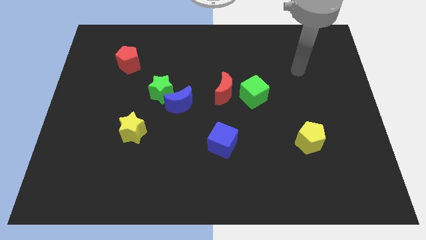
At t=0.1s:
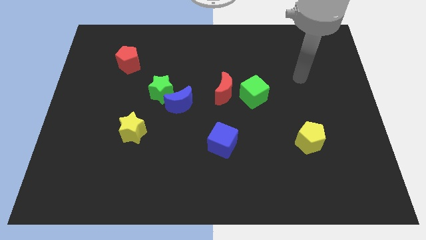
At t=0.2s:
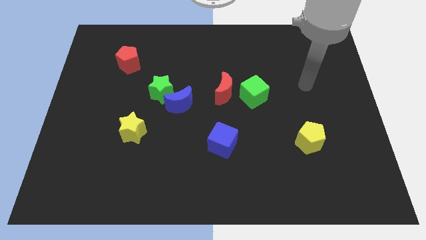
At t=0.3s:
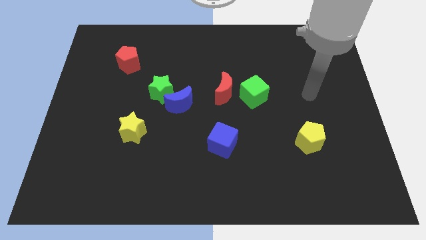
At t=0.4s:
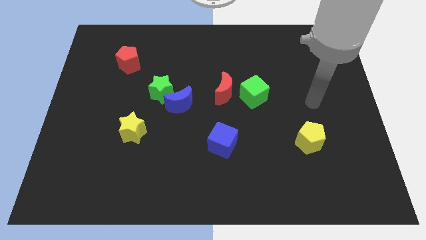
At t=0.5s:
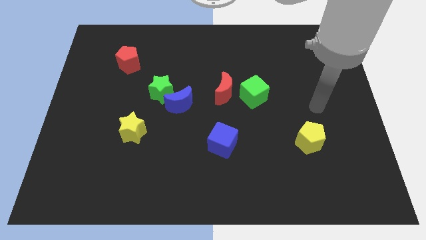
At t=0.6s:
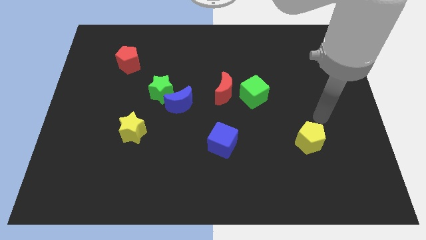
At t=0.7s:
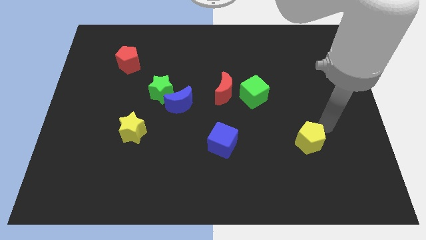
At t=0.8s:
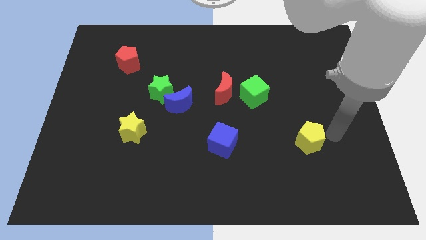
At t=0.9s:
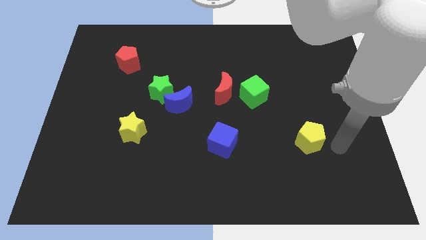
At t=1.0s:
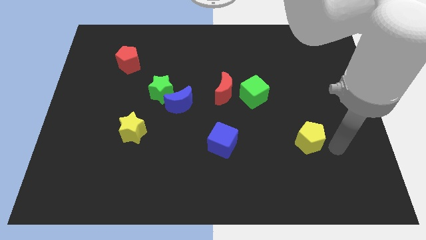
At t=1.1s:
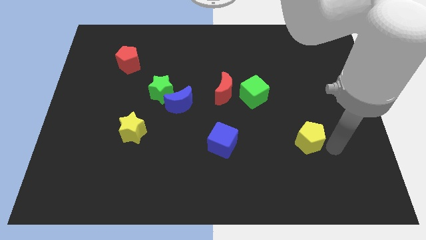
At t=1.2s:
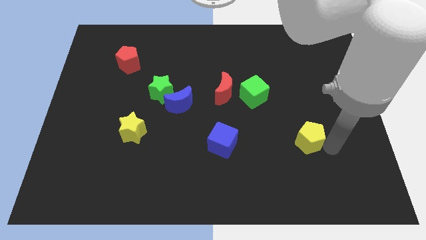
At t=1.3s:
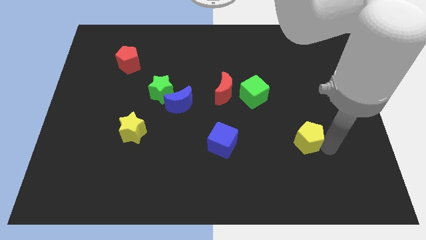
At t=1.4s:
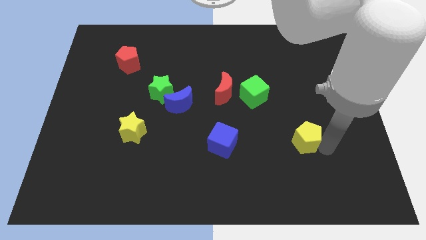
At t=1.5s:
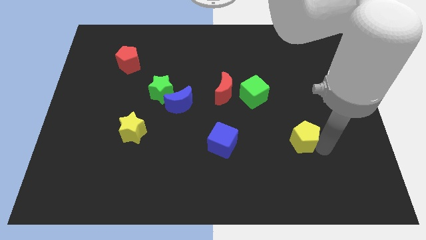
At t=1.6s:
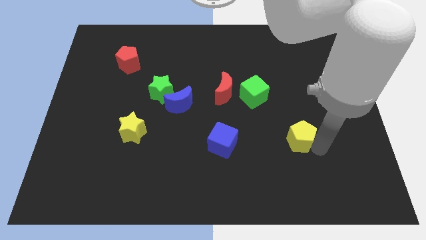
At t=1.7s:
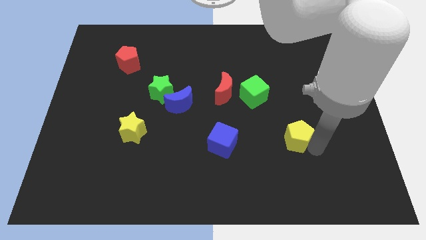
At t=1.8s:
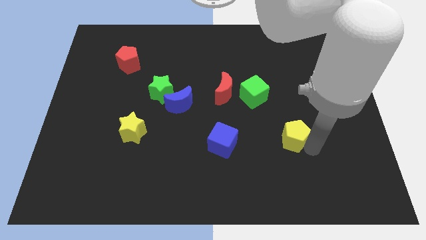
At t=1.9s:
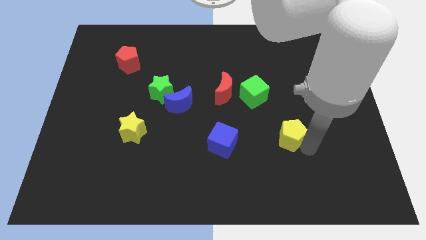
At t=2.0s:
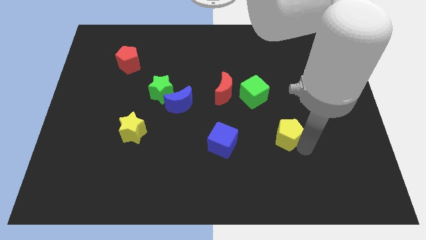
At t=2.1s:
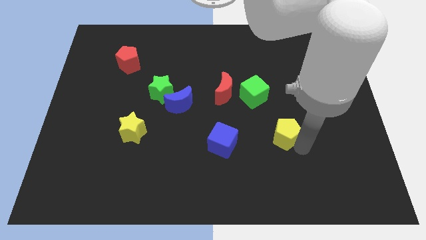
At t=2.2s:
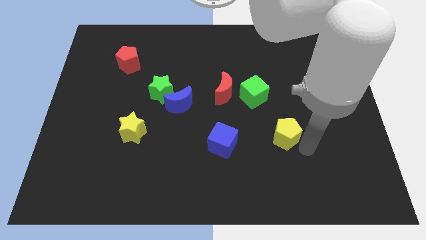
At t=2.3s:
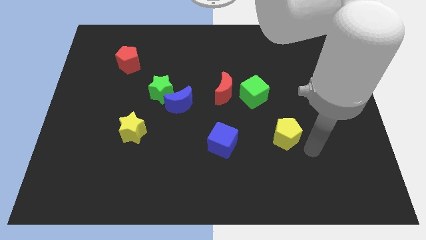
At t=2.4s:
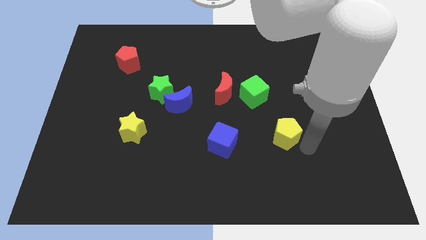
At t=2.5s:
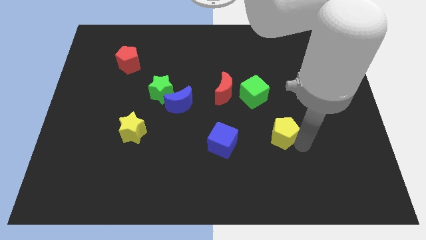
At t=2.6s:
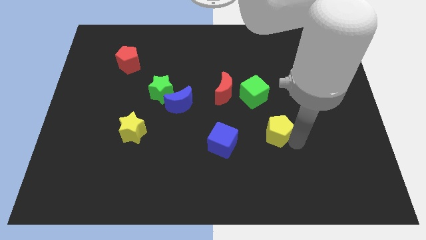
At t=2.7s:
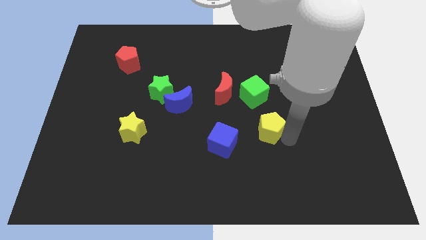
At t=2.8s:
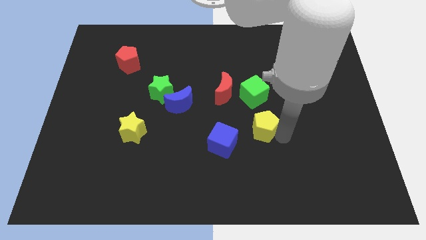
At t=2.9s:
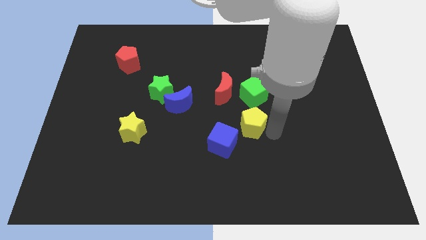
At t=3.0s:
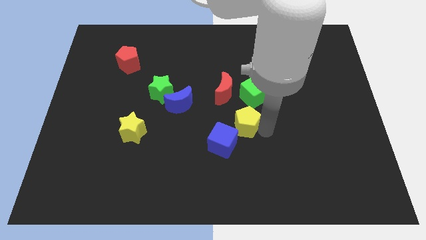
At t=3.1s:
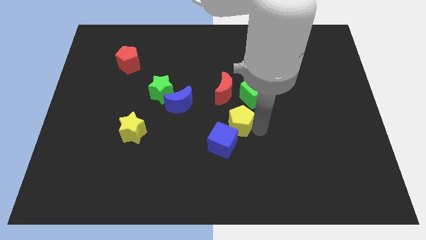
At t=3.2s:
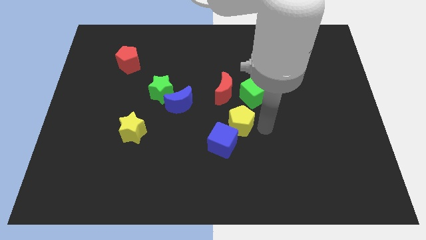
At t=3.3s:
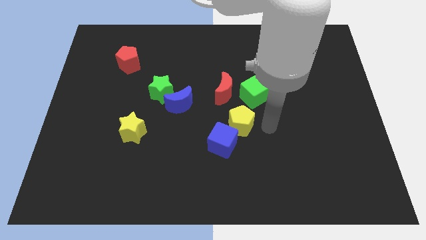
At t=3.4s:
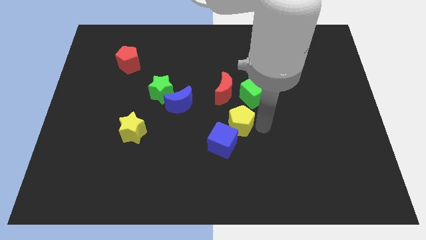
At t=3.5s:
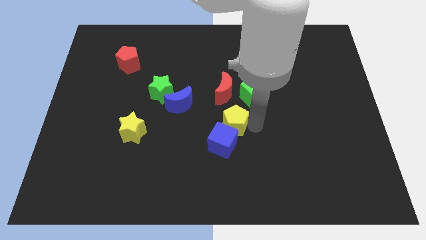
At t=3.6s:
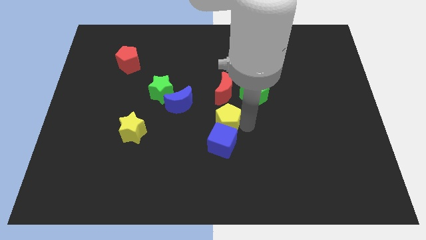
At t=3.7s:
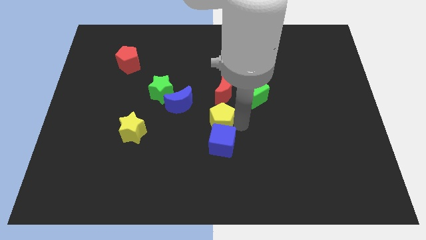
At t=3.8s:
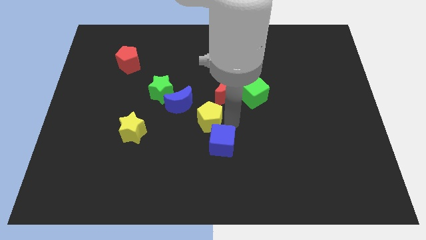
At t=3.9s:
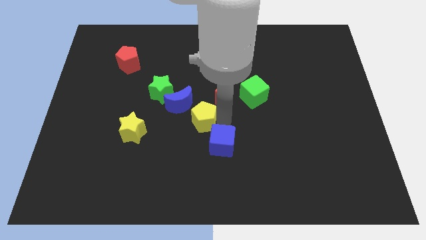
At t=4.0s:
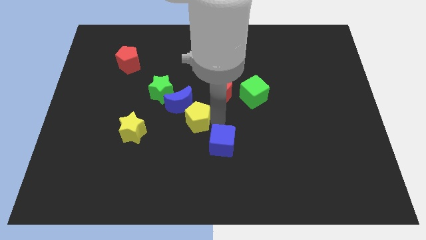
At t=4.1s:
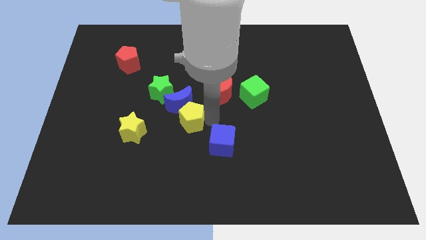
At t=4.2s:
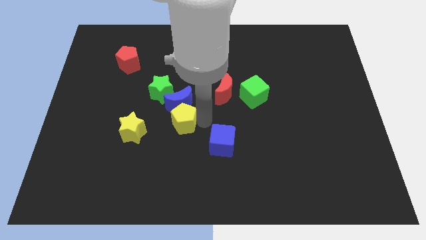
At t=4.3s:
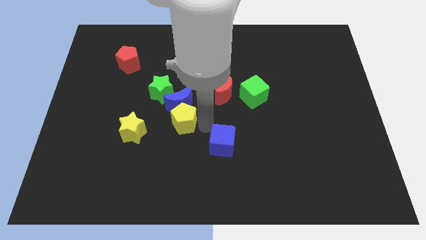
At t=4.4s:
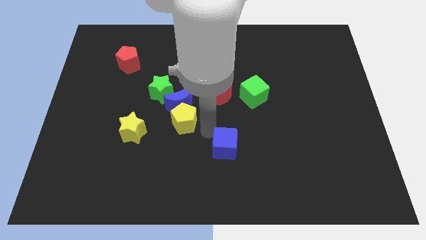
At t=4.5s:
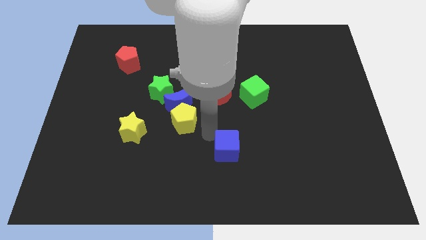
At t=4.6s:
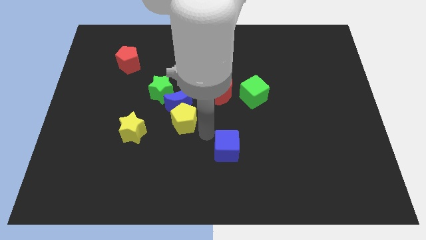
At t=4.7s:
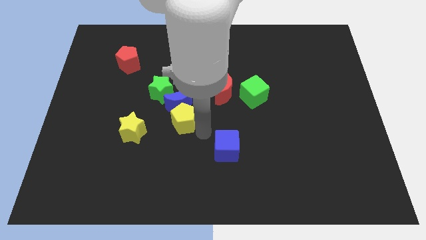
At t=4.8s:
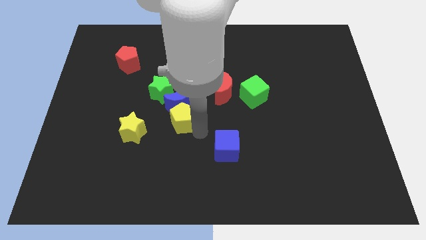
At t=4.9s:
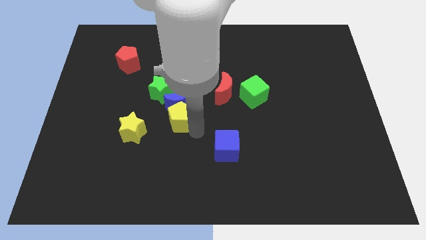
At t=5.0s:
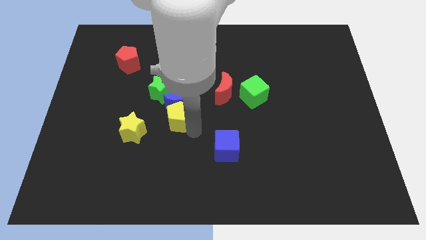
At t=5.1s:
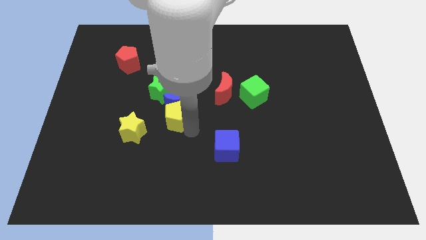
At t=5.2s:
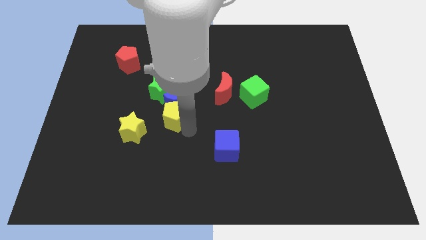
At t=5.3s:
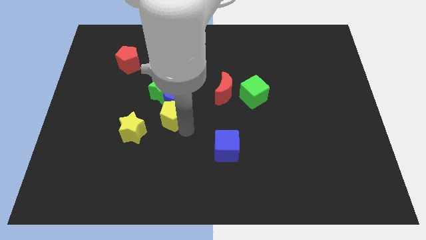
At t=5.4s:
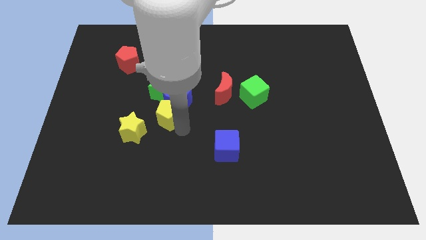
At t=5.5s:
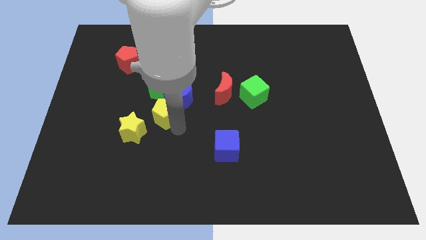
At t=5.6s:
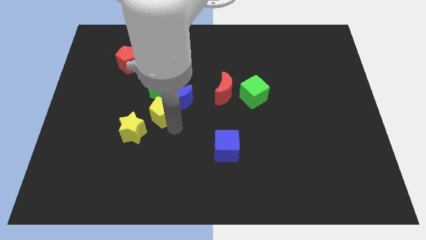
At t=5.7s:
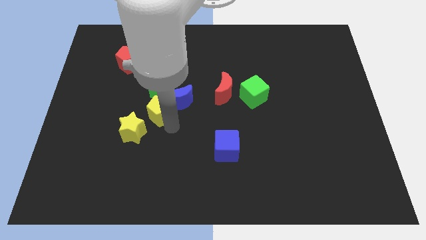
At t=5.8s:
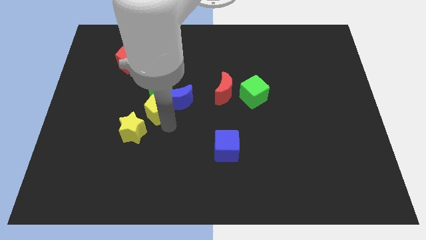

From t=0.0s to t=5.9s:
slide the yellow pentagon close to the green star

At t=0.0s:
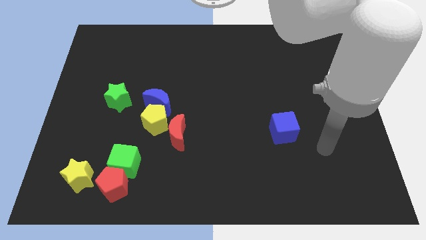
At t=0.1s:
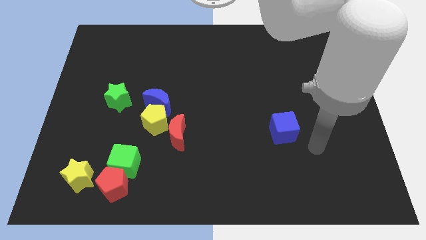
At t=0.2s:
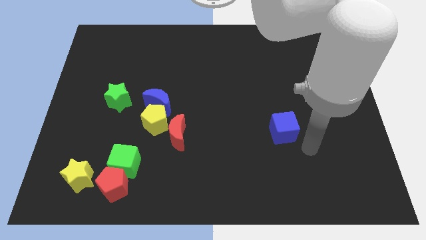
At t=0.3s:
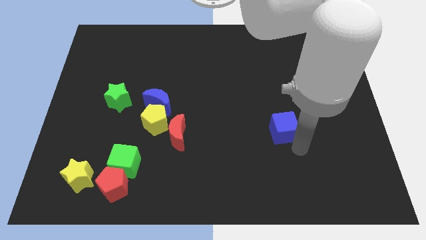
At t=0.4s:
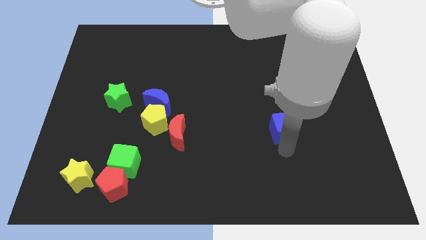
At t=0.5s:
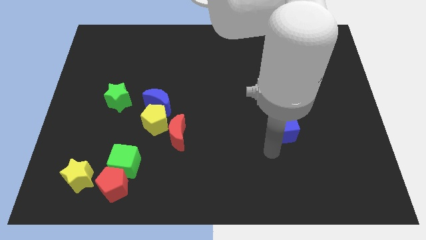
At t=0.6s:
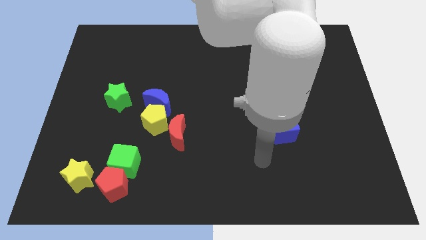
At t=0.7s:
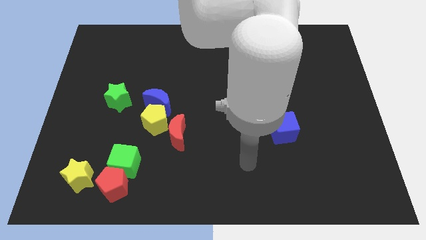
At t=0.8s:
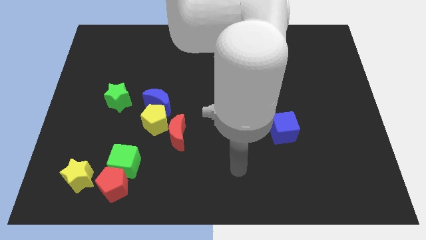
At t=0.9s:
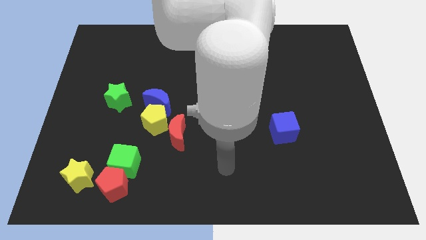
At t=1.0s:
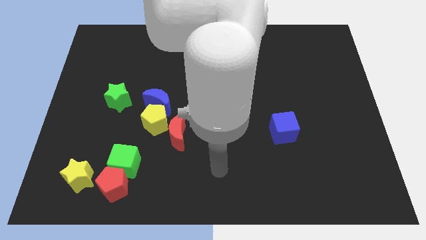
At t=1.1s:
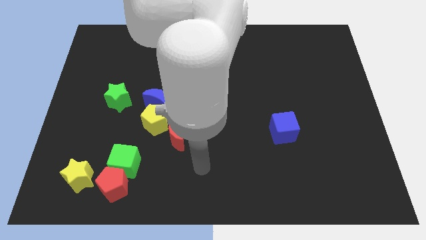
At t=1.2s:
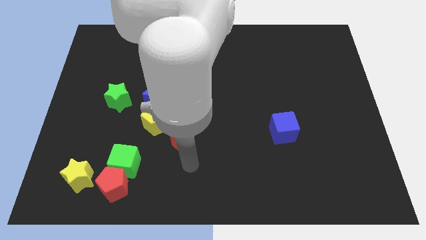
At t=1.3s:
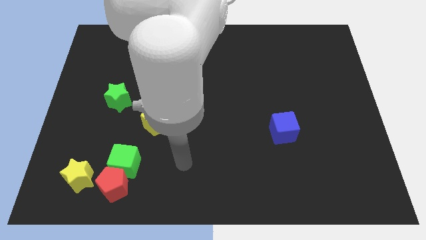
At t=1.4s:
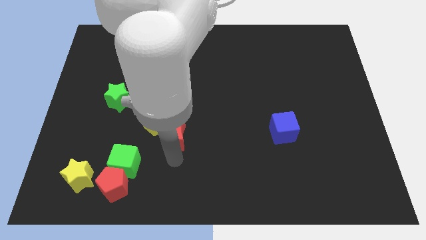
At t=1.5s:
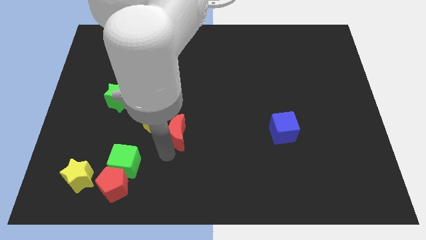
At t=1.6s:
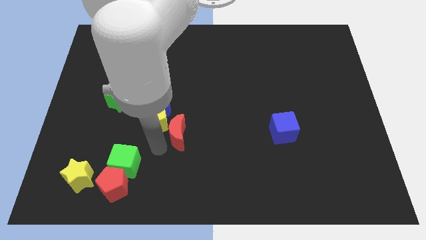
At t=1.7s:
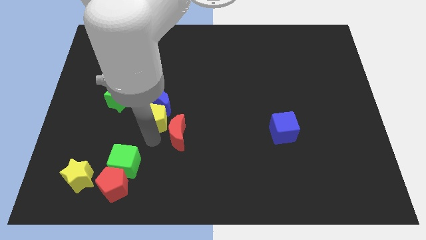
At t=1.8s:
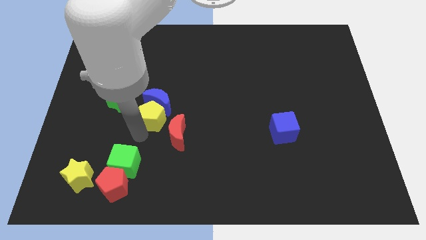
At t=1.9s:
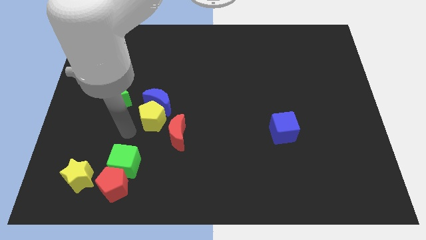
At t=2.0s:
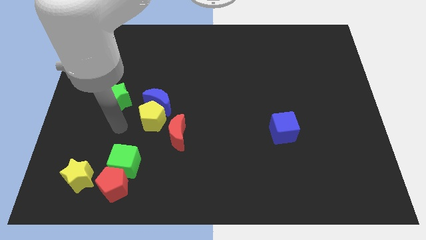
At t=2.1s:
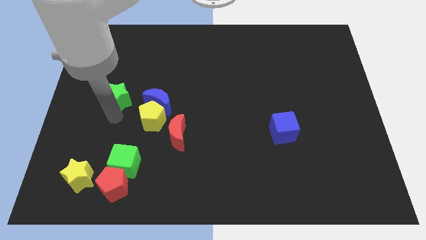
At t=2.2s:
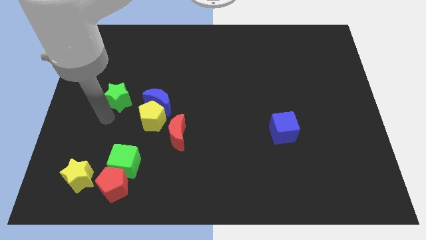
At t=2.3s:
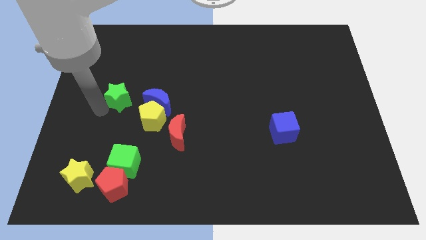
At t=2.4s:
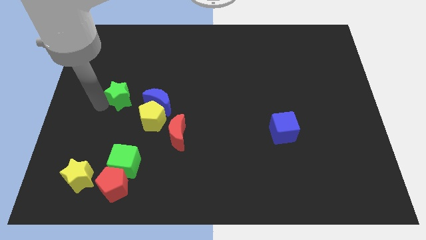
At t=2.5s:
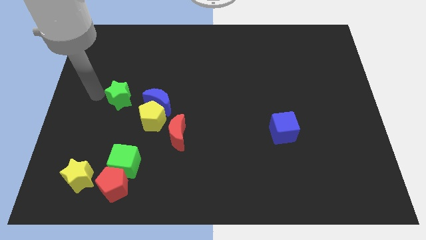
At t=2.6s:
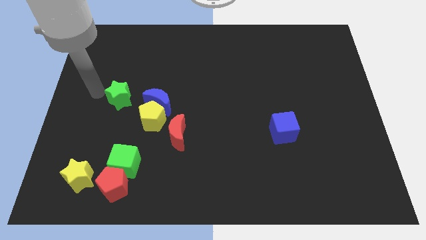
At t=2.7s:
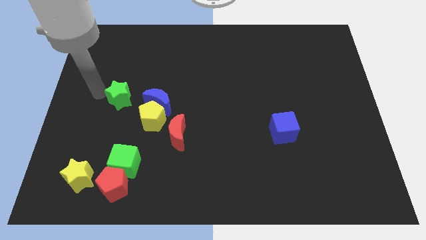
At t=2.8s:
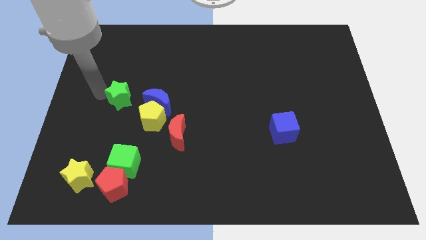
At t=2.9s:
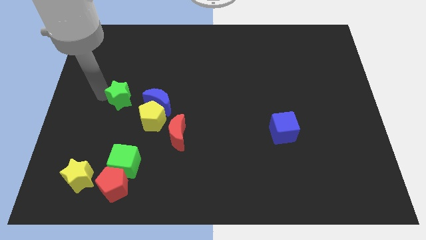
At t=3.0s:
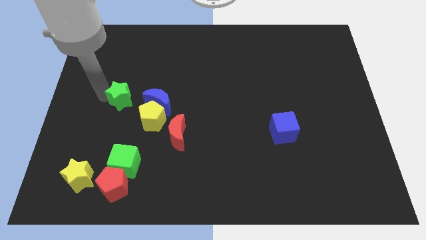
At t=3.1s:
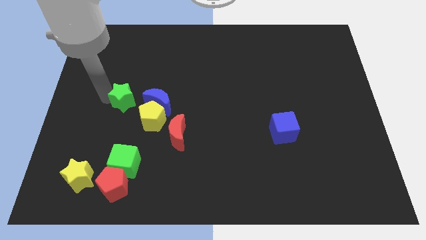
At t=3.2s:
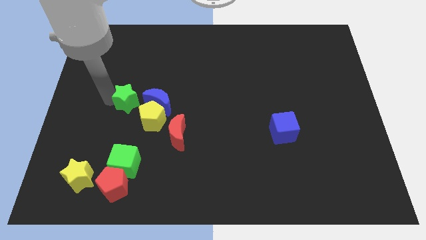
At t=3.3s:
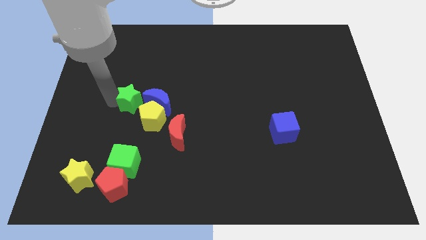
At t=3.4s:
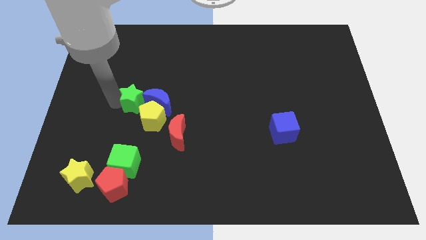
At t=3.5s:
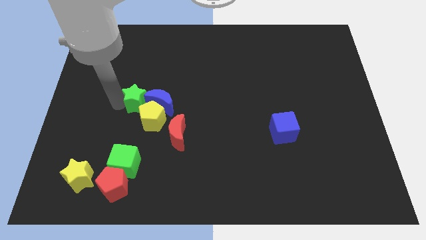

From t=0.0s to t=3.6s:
push the green star next to the blue moon
